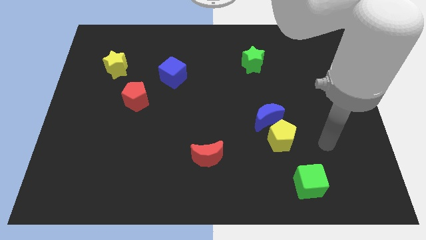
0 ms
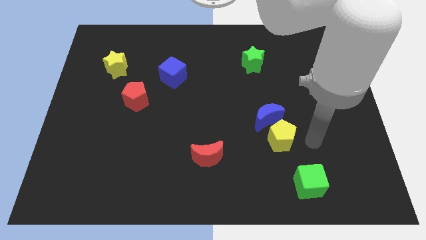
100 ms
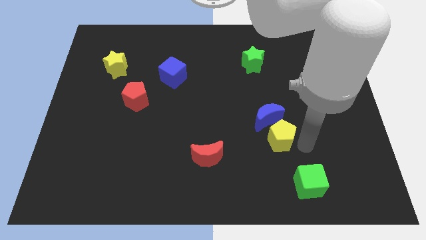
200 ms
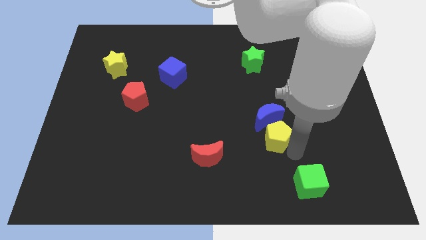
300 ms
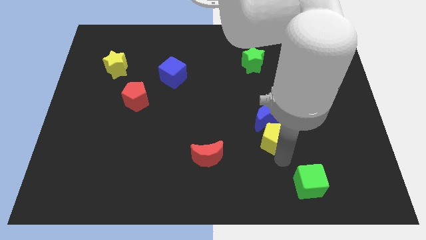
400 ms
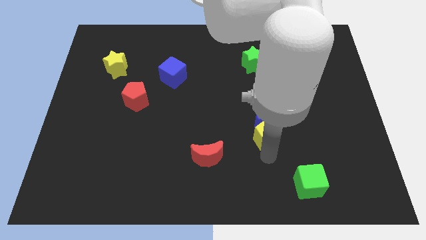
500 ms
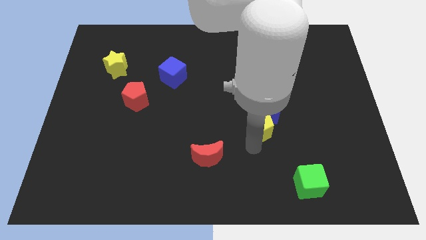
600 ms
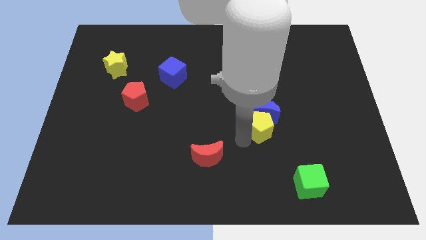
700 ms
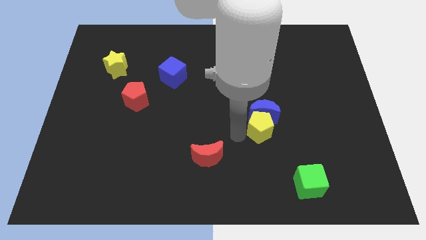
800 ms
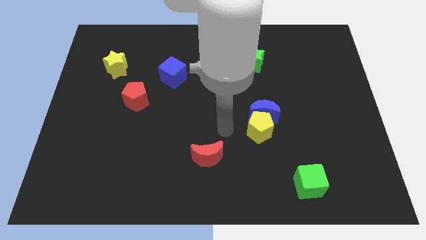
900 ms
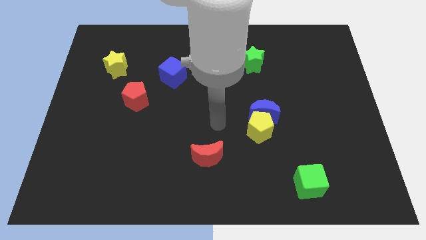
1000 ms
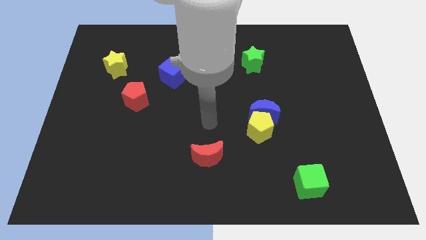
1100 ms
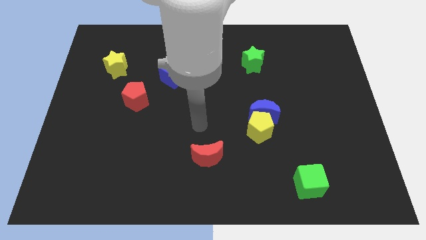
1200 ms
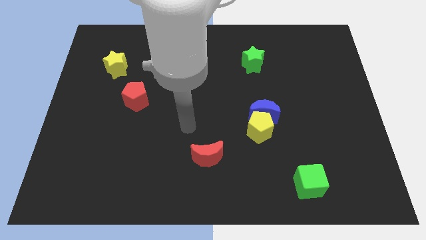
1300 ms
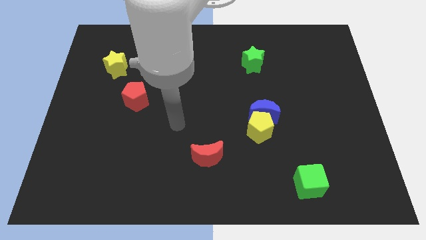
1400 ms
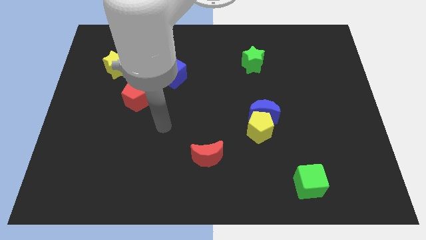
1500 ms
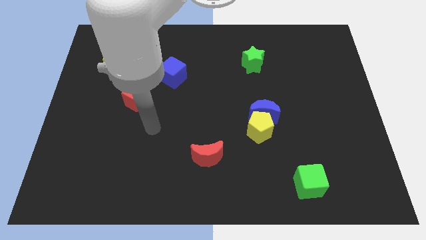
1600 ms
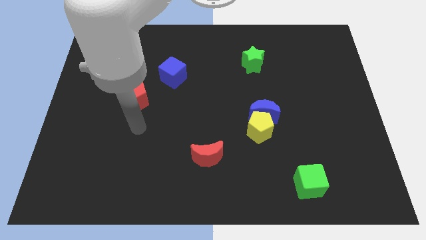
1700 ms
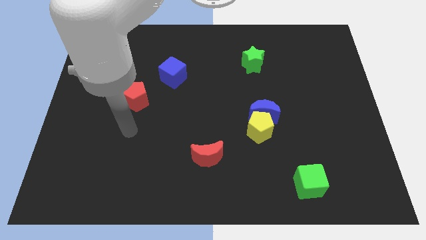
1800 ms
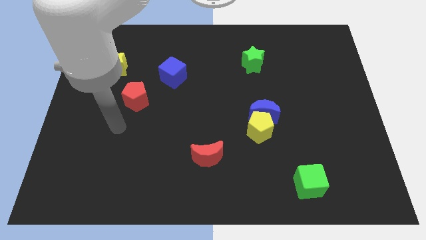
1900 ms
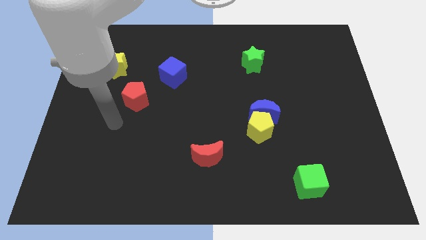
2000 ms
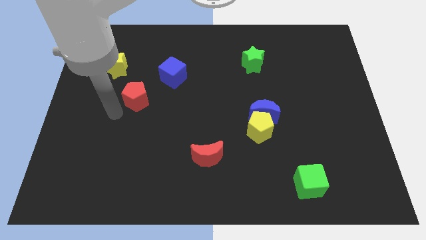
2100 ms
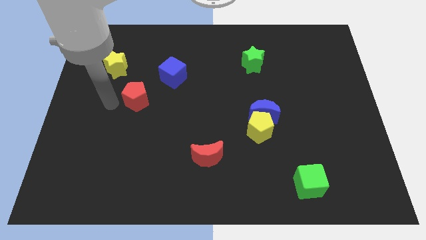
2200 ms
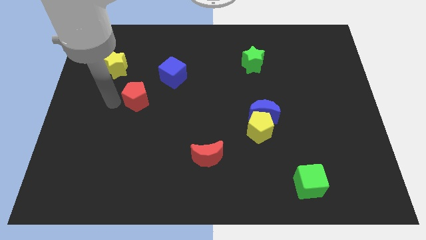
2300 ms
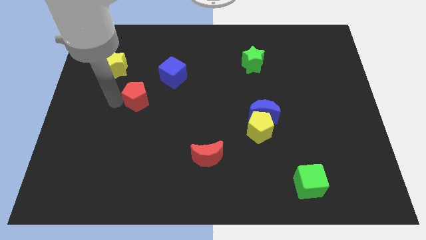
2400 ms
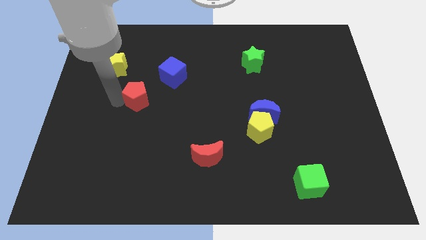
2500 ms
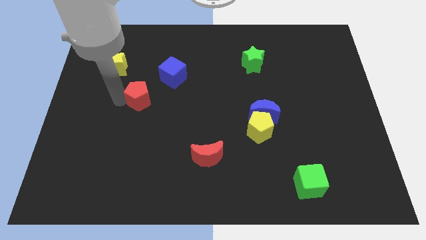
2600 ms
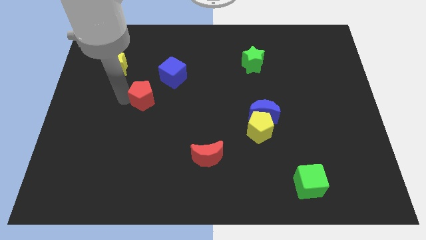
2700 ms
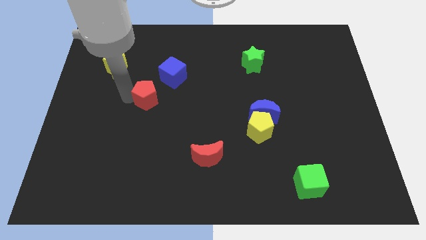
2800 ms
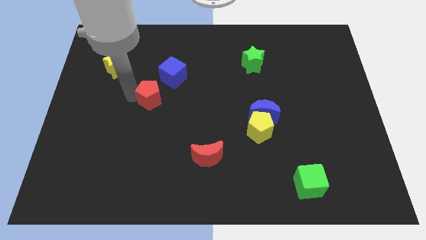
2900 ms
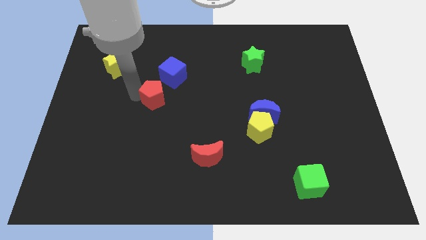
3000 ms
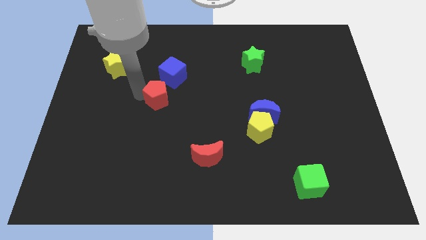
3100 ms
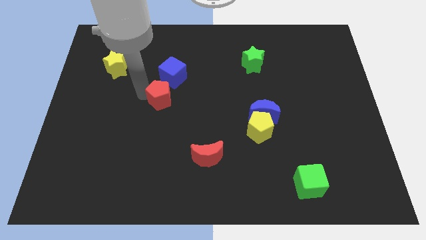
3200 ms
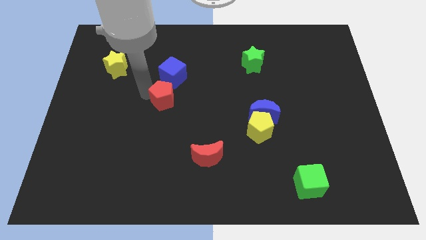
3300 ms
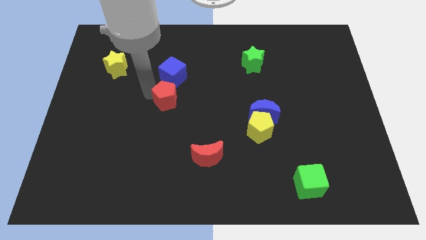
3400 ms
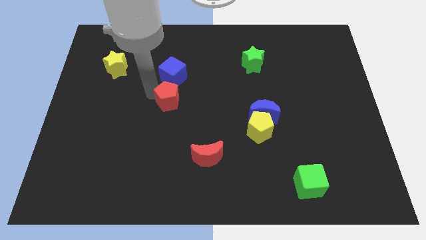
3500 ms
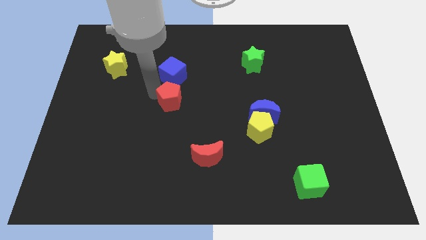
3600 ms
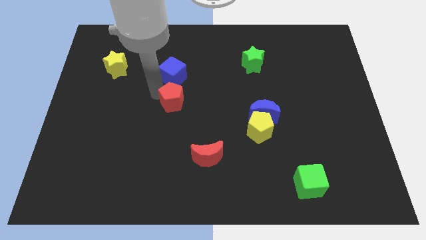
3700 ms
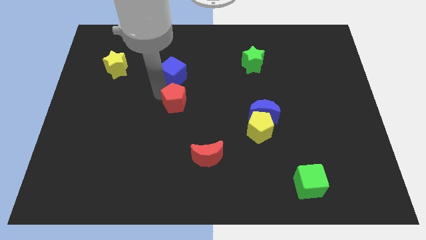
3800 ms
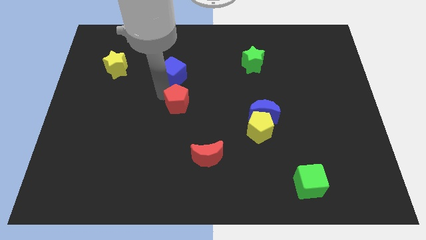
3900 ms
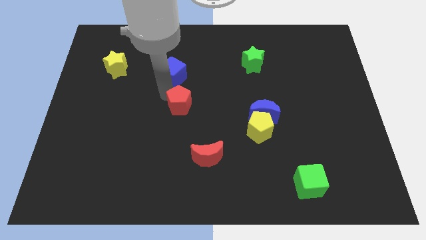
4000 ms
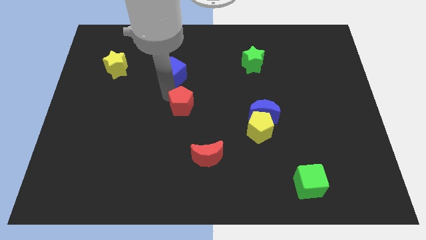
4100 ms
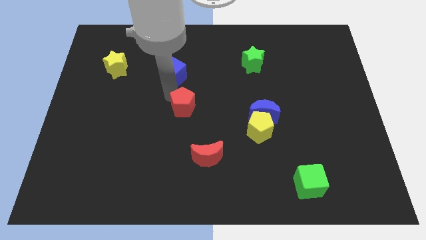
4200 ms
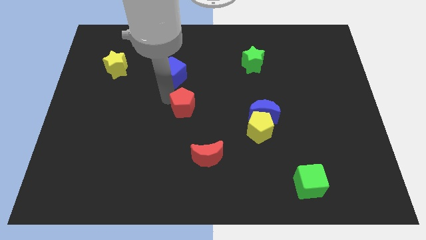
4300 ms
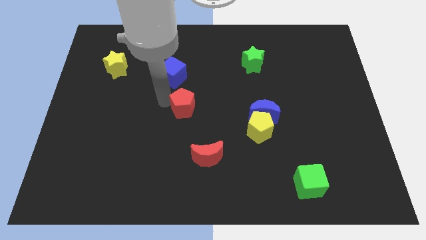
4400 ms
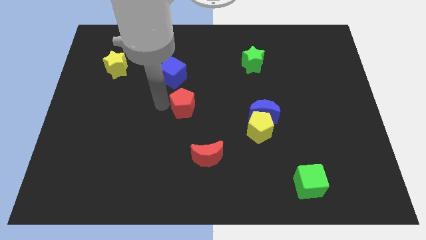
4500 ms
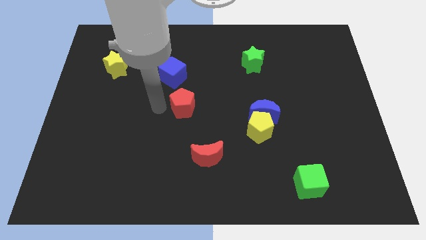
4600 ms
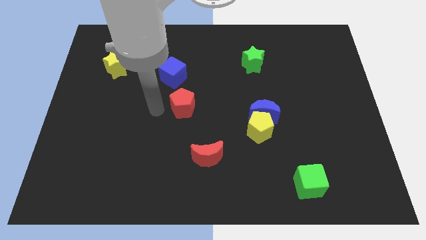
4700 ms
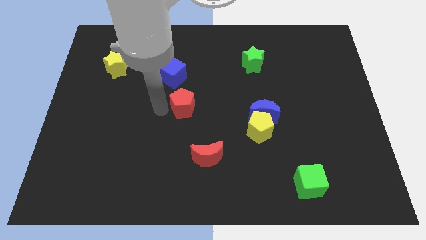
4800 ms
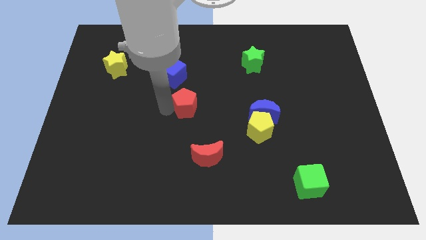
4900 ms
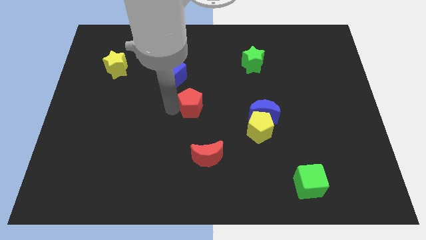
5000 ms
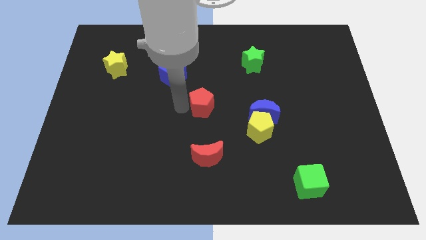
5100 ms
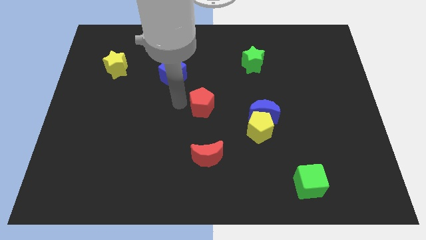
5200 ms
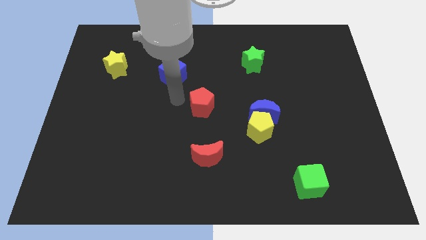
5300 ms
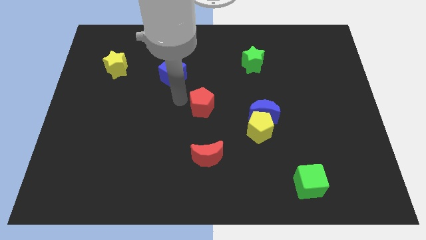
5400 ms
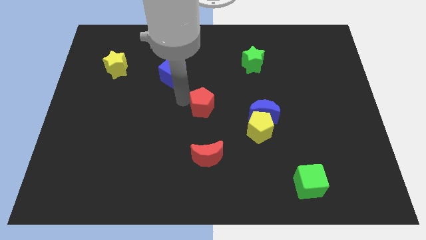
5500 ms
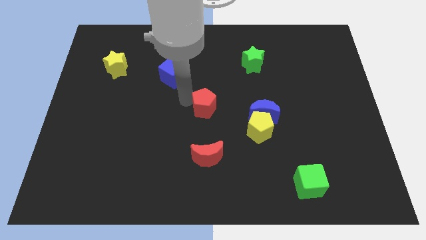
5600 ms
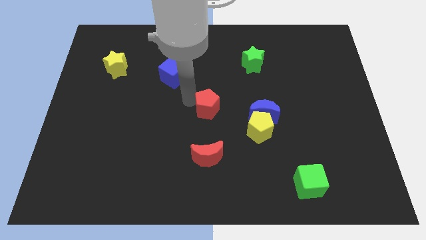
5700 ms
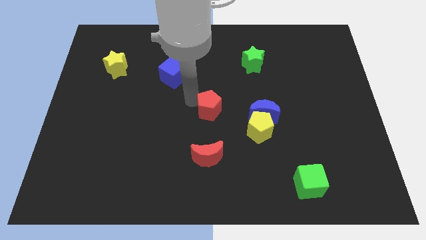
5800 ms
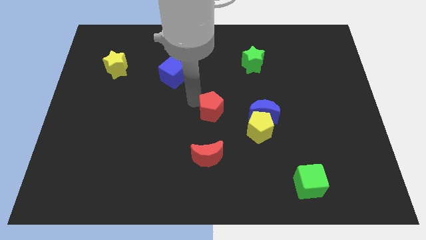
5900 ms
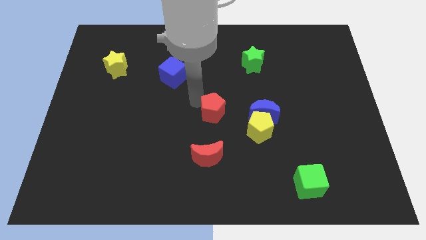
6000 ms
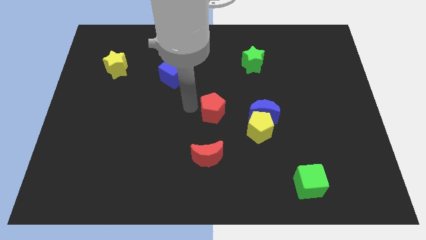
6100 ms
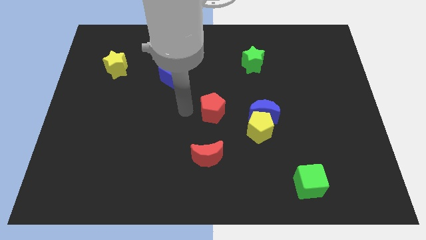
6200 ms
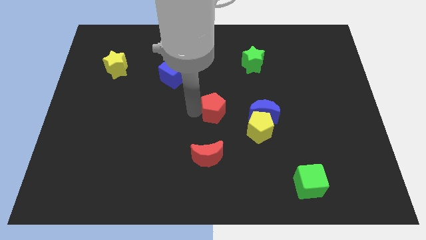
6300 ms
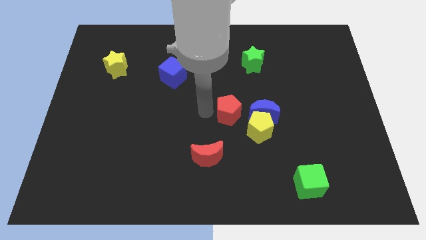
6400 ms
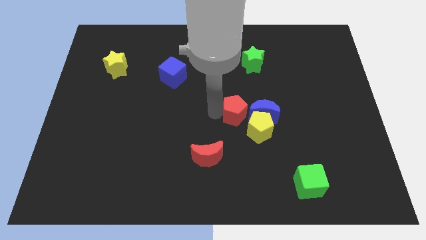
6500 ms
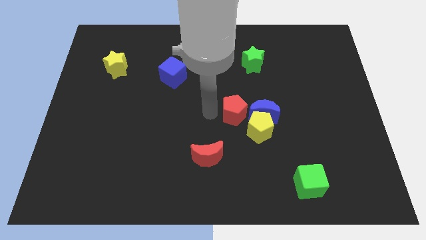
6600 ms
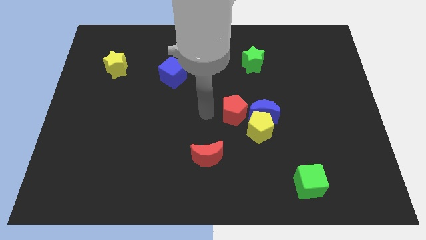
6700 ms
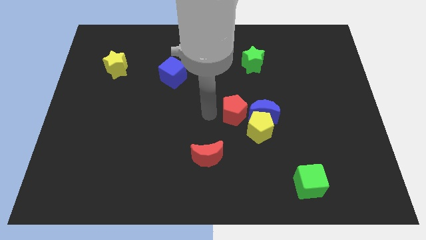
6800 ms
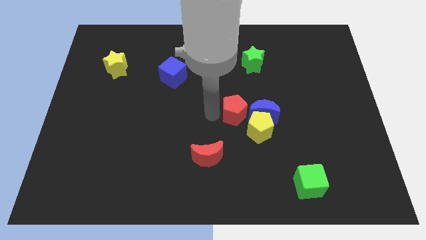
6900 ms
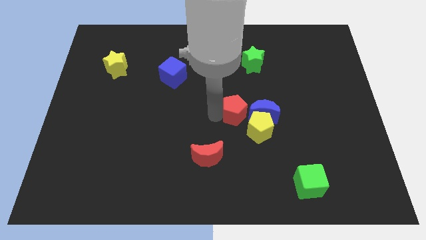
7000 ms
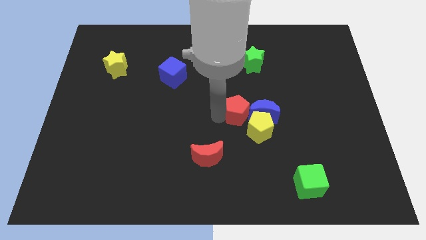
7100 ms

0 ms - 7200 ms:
move the red pentagon next to the blue moon

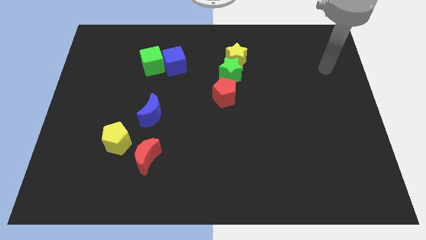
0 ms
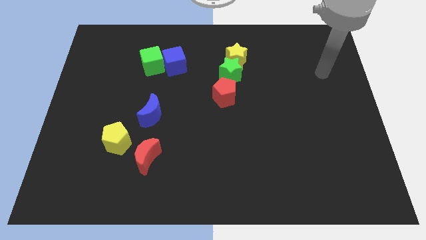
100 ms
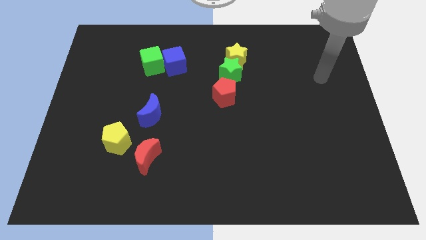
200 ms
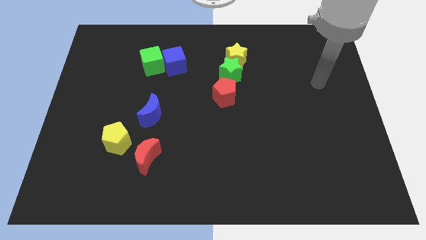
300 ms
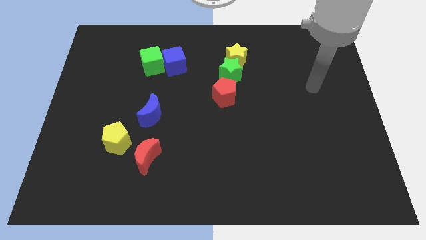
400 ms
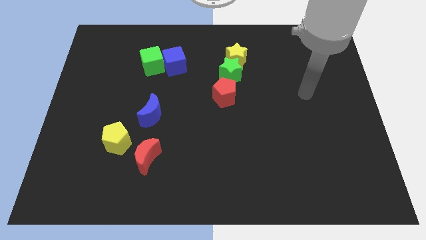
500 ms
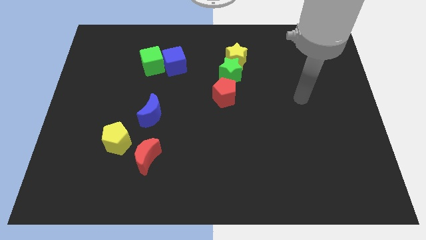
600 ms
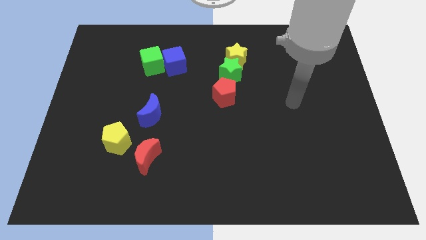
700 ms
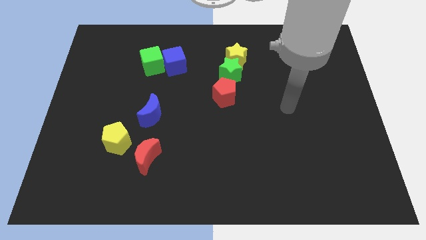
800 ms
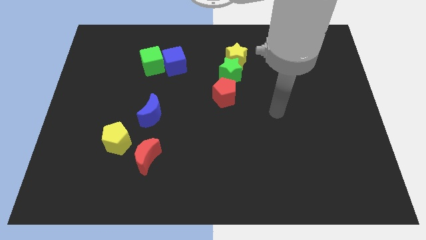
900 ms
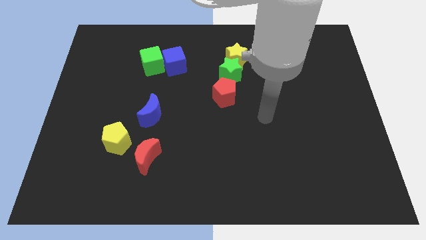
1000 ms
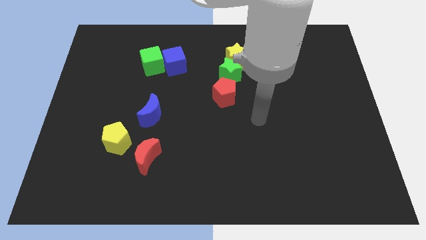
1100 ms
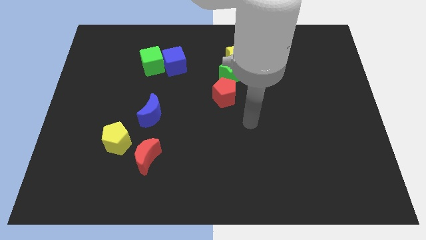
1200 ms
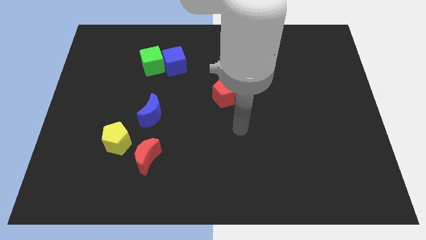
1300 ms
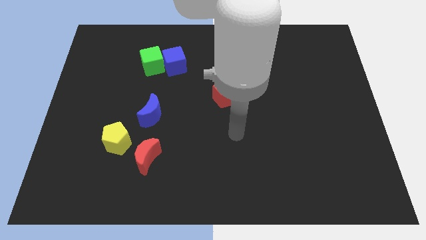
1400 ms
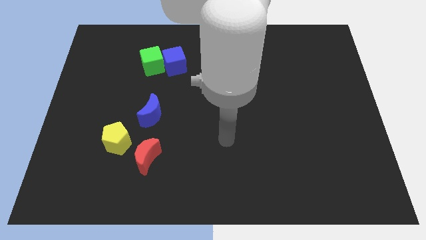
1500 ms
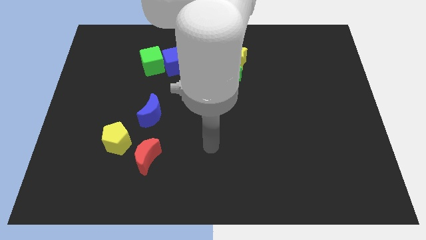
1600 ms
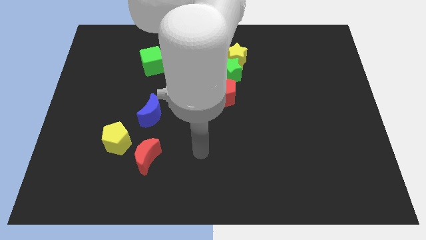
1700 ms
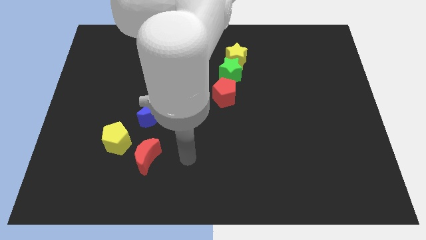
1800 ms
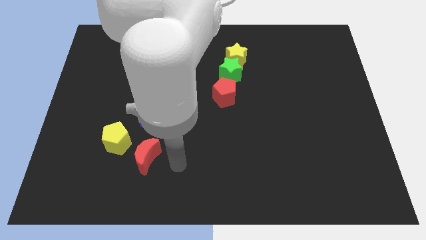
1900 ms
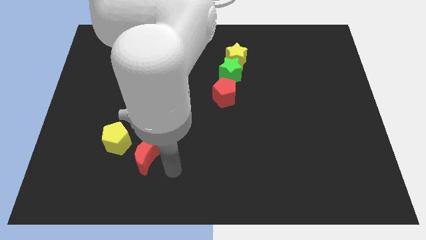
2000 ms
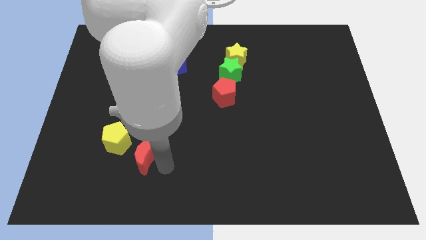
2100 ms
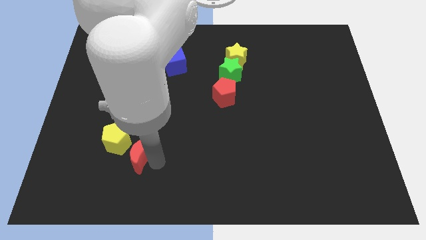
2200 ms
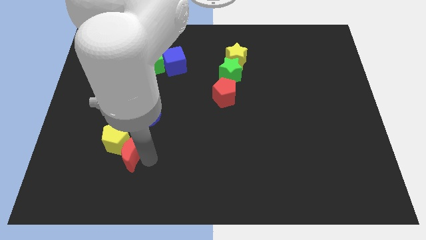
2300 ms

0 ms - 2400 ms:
push the red moon close to the yellow pentagon
